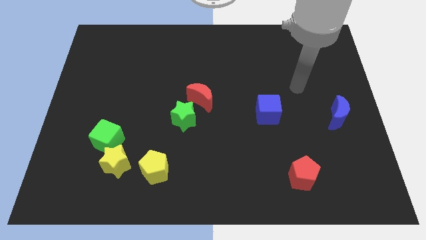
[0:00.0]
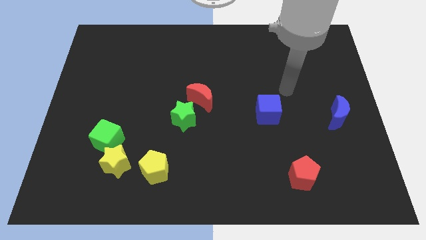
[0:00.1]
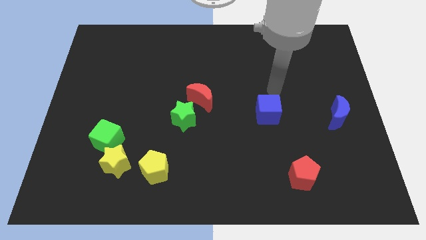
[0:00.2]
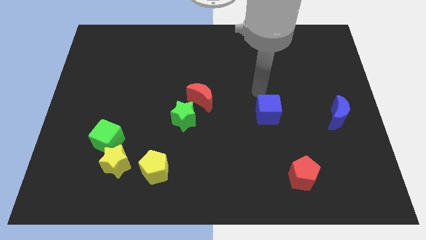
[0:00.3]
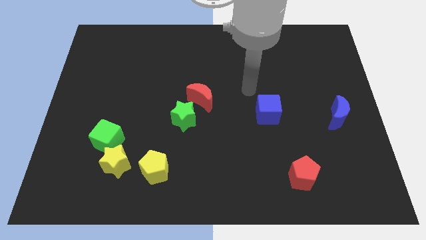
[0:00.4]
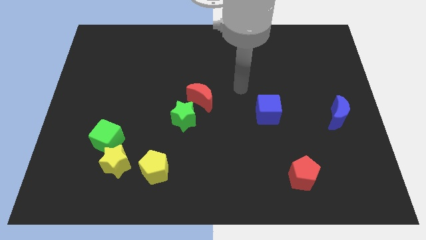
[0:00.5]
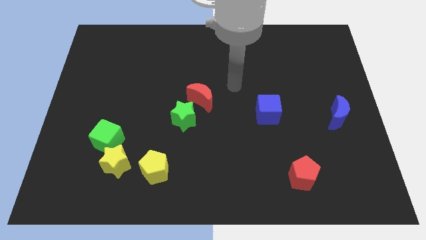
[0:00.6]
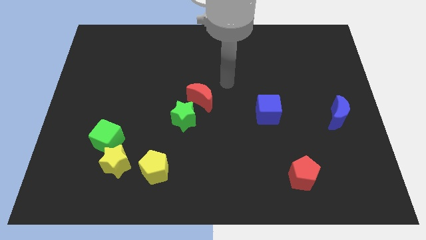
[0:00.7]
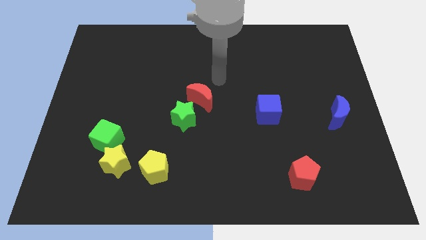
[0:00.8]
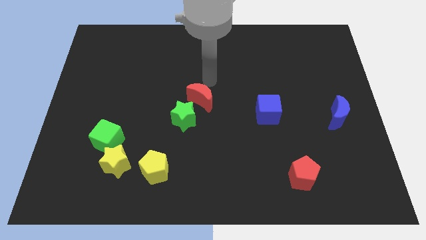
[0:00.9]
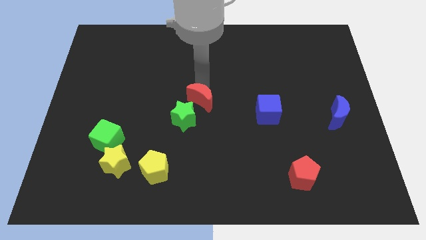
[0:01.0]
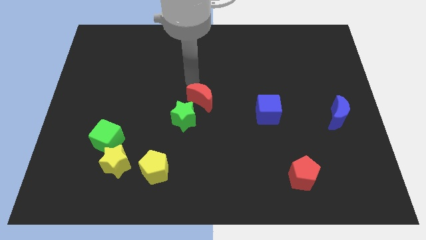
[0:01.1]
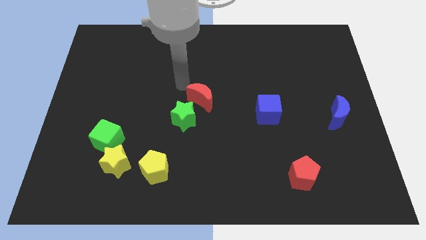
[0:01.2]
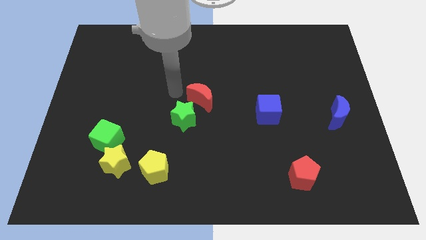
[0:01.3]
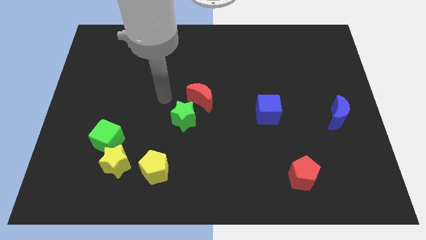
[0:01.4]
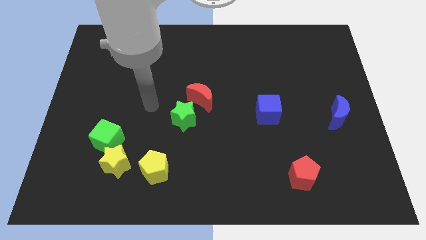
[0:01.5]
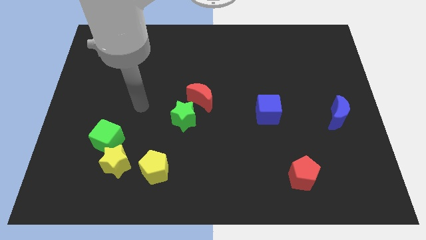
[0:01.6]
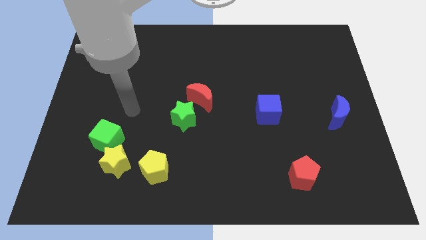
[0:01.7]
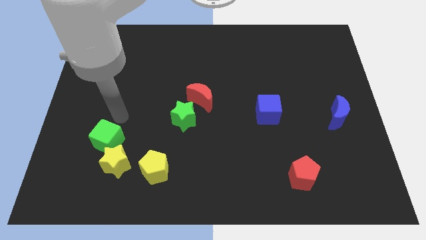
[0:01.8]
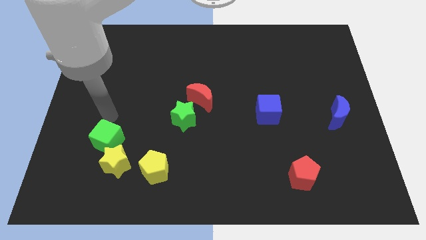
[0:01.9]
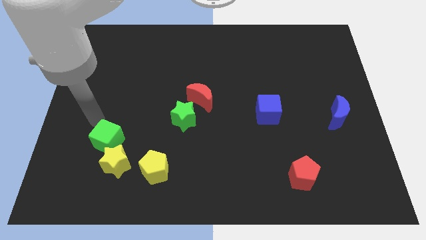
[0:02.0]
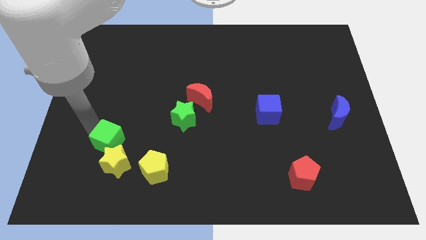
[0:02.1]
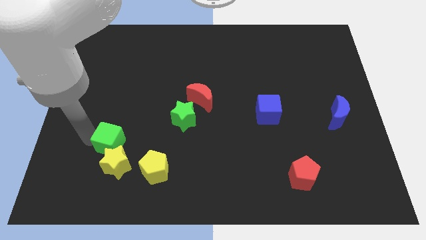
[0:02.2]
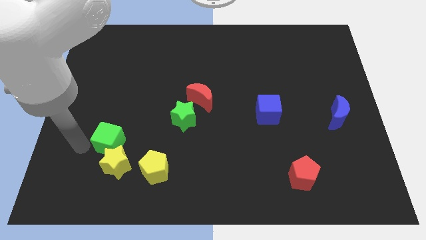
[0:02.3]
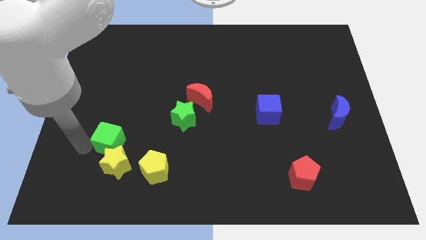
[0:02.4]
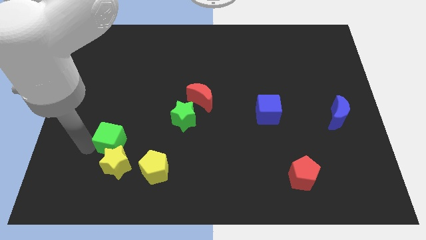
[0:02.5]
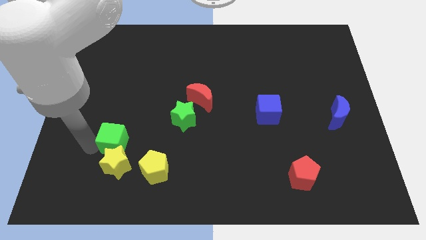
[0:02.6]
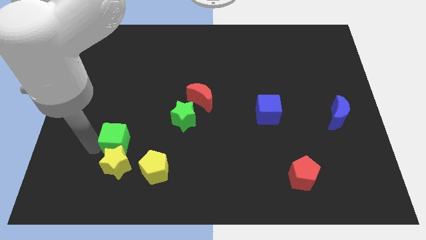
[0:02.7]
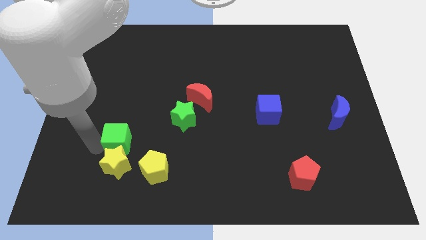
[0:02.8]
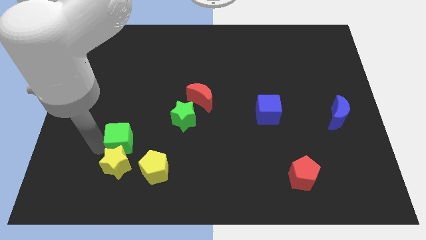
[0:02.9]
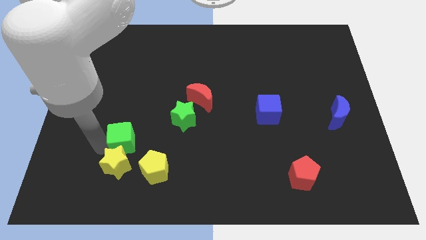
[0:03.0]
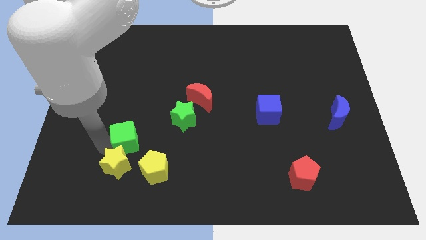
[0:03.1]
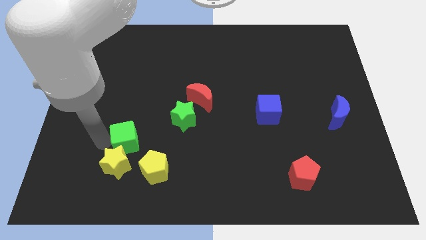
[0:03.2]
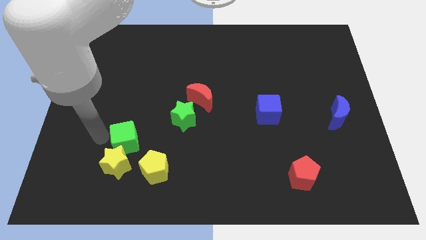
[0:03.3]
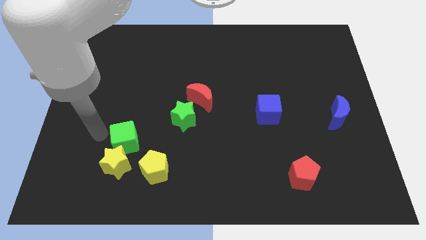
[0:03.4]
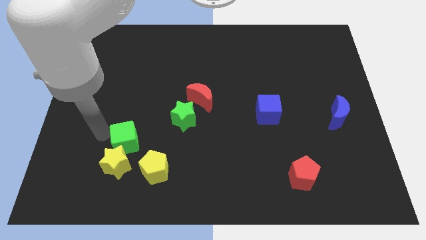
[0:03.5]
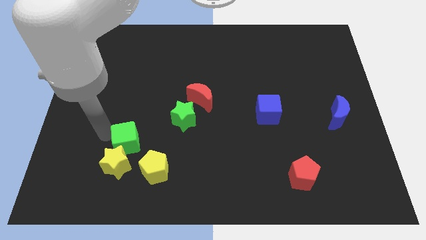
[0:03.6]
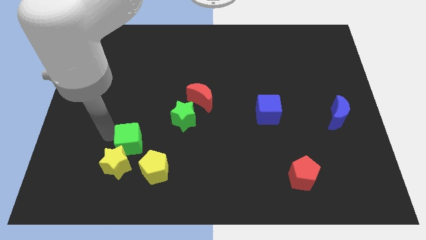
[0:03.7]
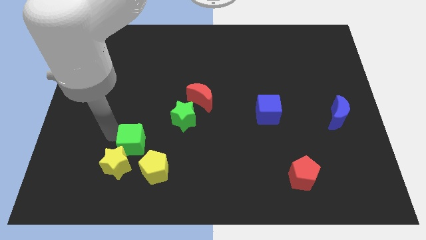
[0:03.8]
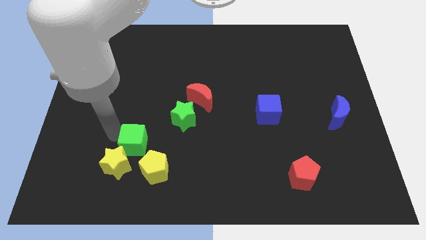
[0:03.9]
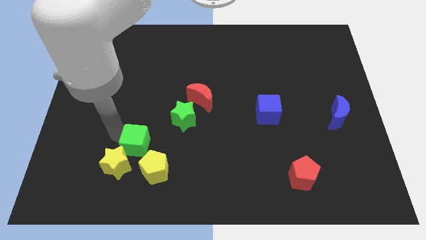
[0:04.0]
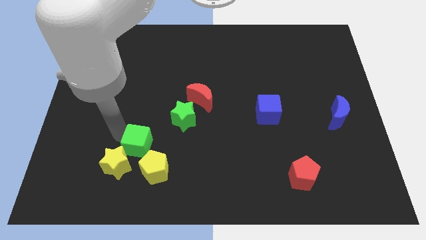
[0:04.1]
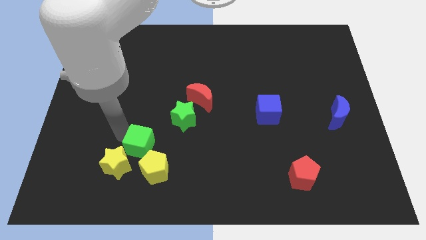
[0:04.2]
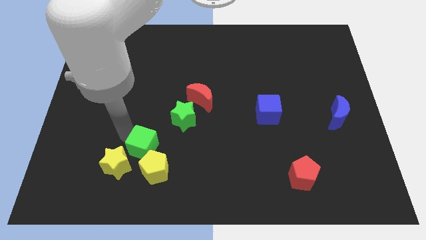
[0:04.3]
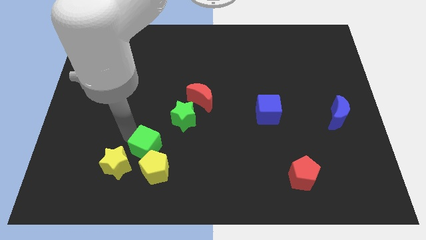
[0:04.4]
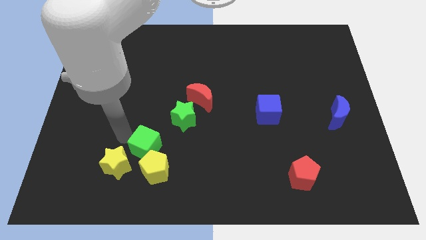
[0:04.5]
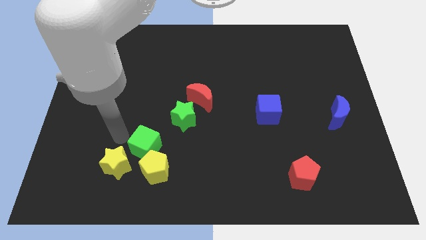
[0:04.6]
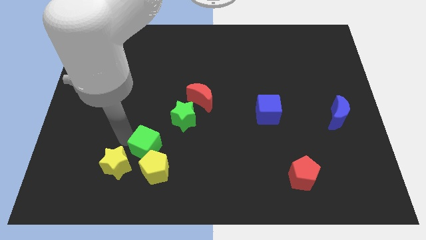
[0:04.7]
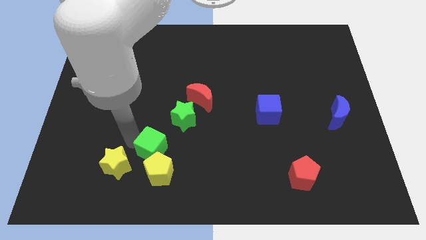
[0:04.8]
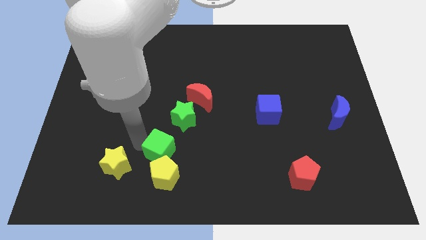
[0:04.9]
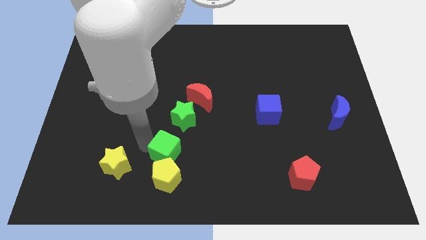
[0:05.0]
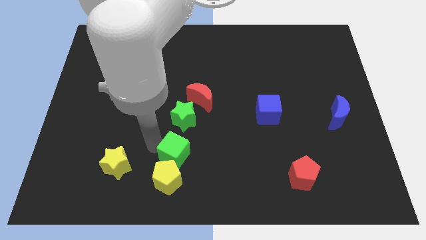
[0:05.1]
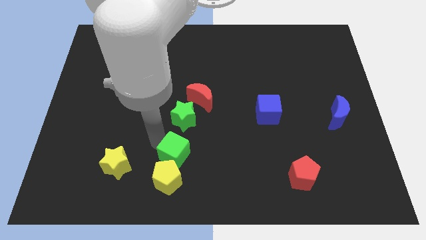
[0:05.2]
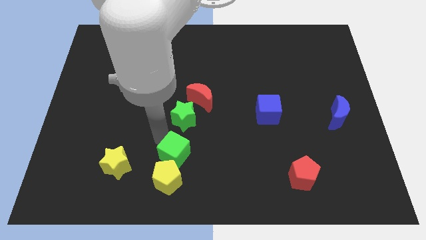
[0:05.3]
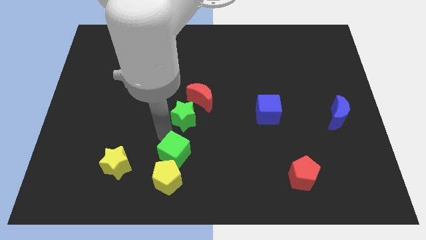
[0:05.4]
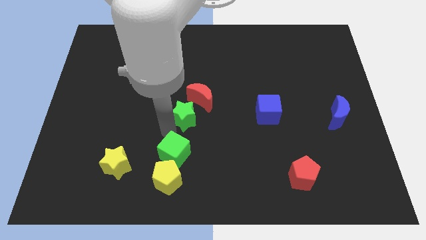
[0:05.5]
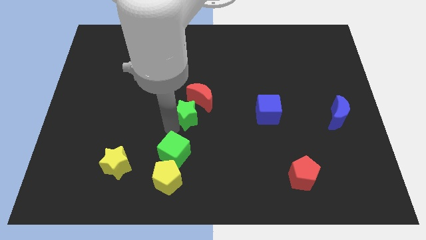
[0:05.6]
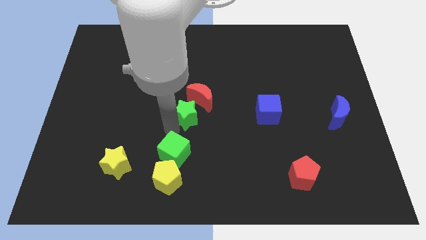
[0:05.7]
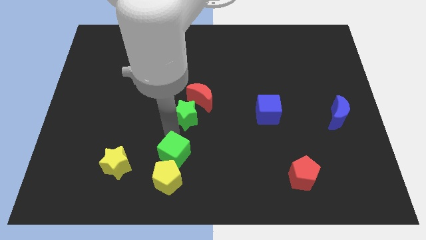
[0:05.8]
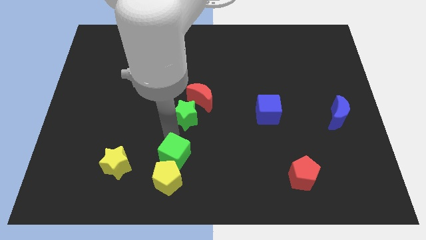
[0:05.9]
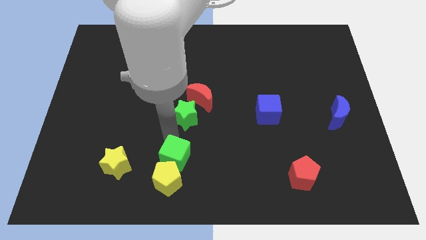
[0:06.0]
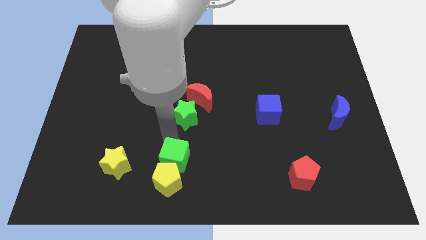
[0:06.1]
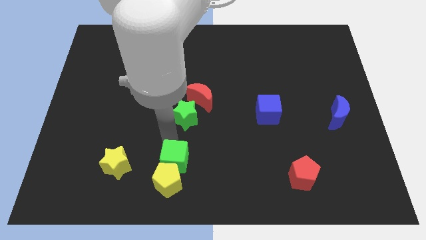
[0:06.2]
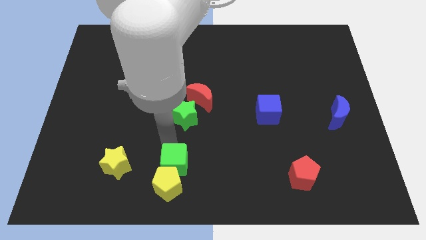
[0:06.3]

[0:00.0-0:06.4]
move the green cube to the bottom

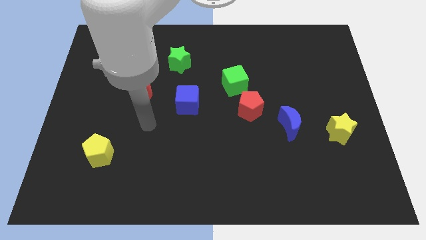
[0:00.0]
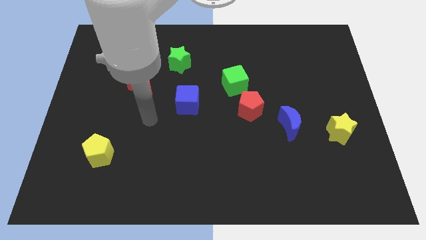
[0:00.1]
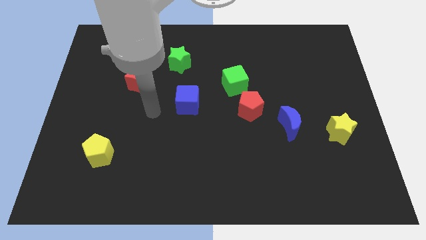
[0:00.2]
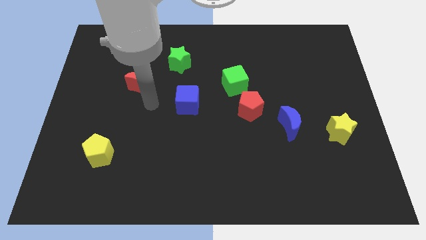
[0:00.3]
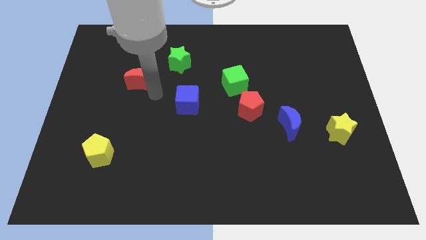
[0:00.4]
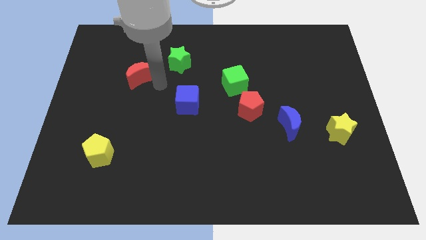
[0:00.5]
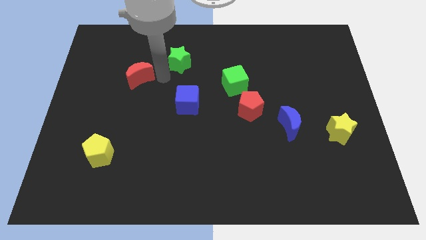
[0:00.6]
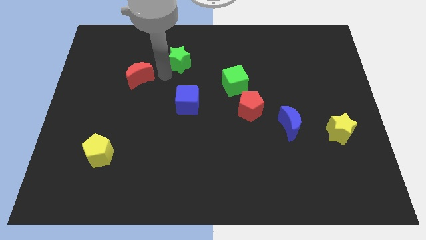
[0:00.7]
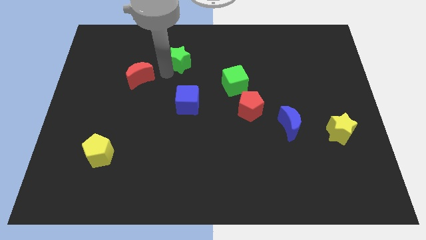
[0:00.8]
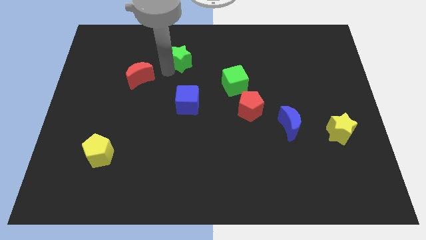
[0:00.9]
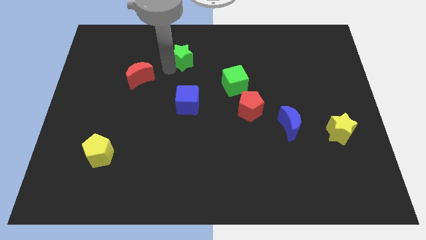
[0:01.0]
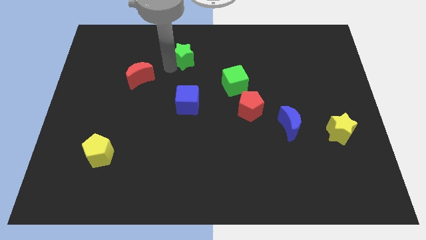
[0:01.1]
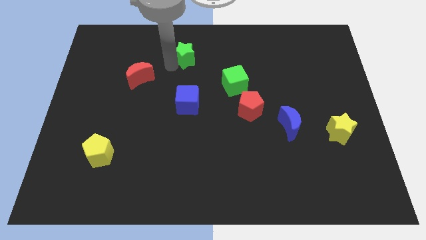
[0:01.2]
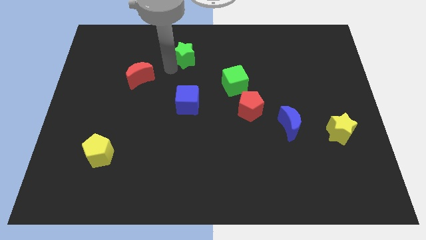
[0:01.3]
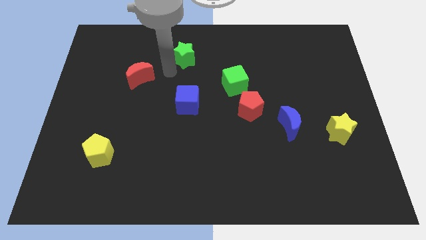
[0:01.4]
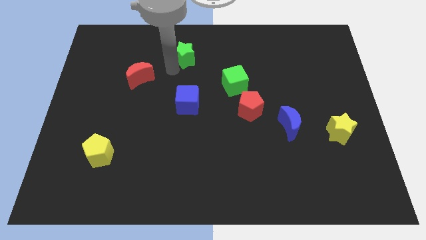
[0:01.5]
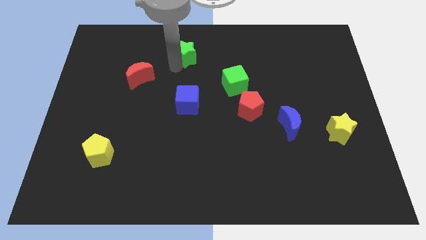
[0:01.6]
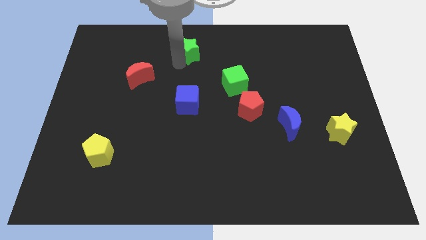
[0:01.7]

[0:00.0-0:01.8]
put the green star to the towards your base
